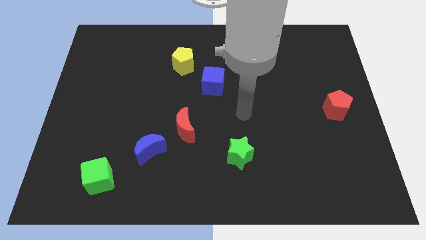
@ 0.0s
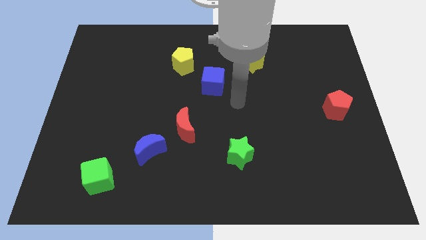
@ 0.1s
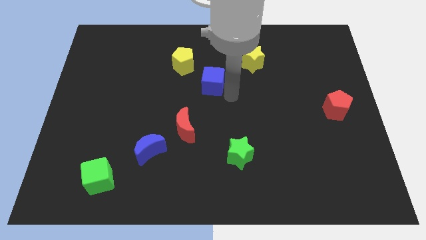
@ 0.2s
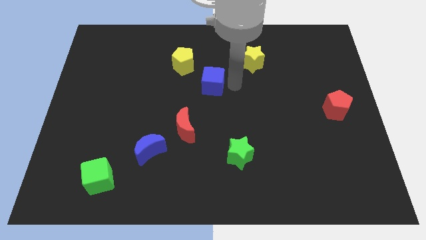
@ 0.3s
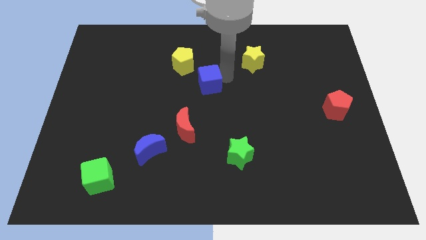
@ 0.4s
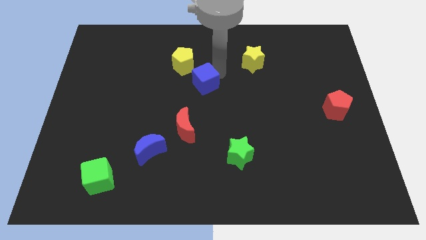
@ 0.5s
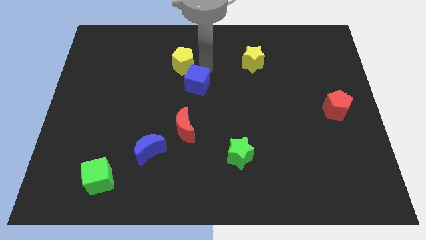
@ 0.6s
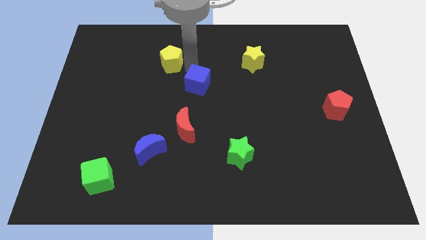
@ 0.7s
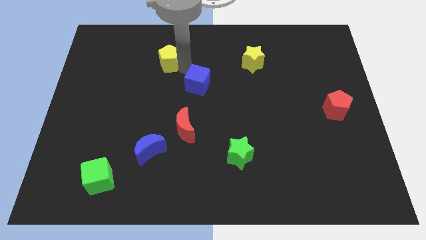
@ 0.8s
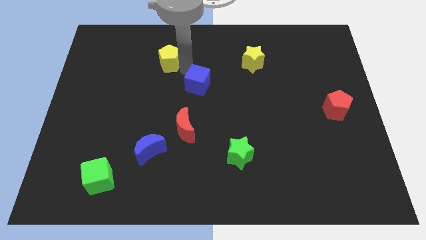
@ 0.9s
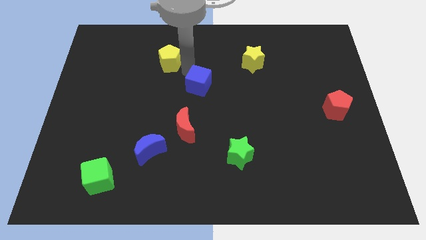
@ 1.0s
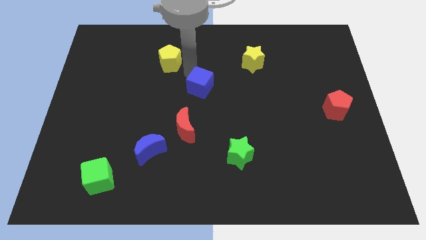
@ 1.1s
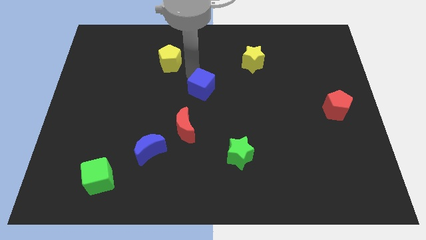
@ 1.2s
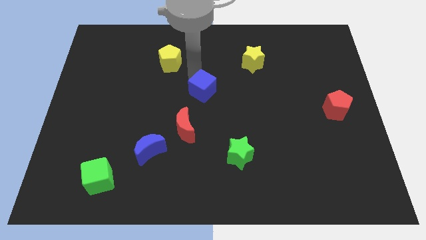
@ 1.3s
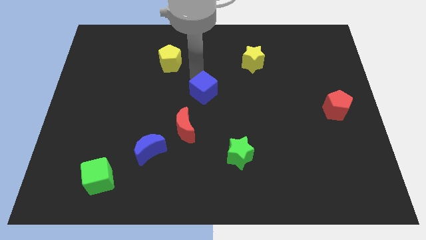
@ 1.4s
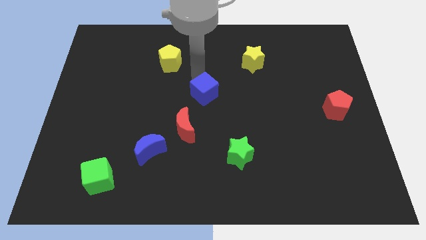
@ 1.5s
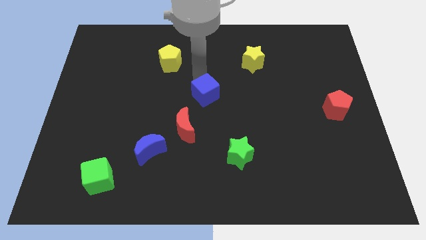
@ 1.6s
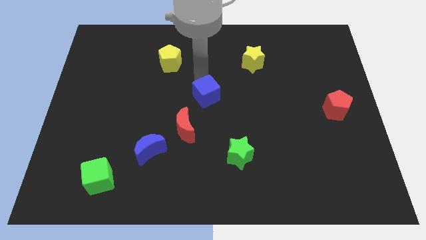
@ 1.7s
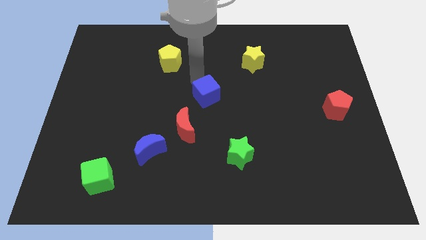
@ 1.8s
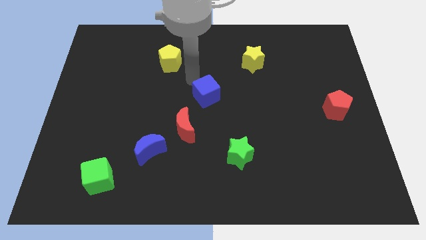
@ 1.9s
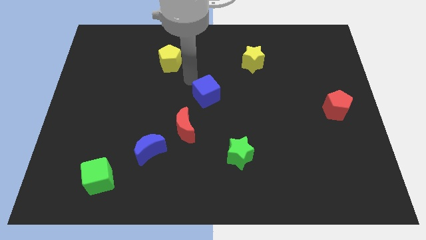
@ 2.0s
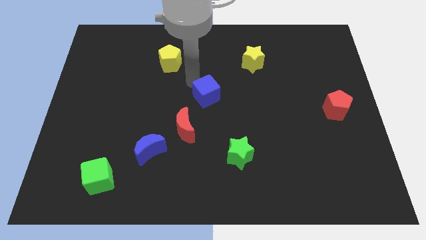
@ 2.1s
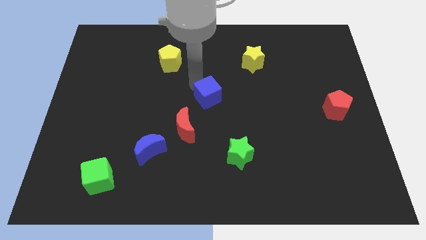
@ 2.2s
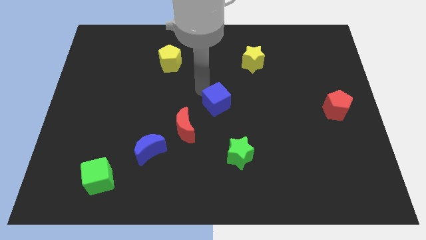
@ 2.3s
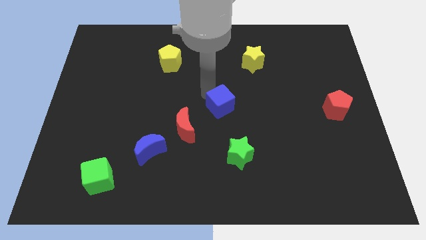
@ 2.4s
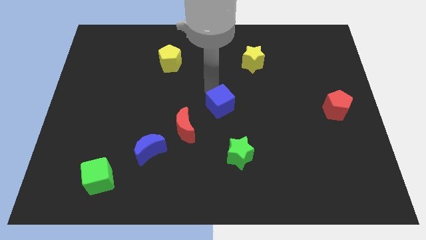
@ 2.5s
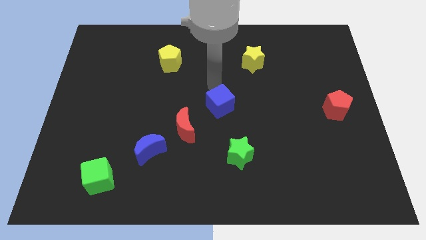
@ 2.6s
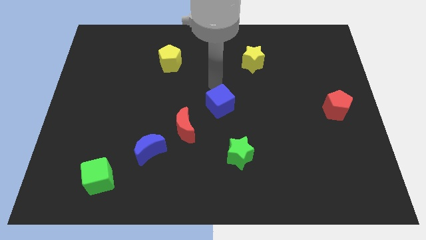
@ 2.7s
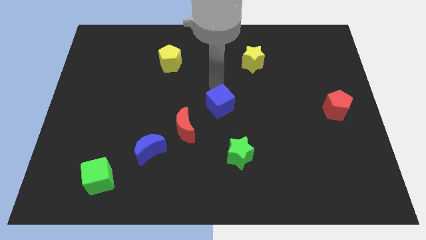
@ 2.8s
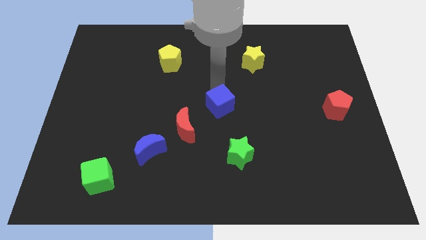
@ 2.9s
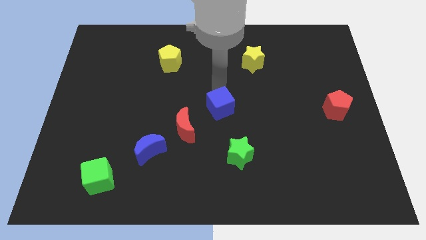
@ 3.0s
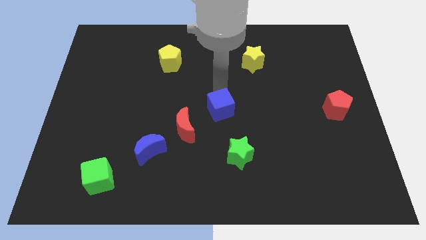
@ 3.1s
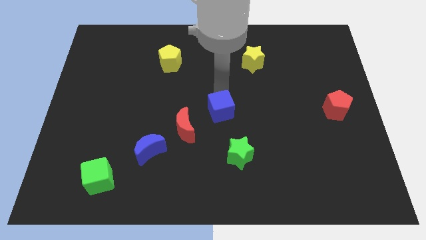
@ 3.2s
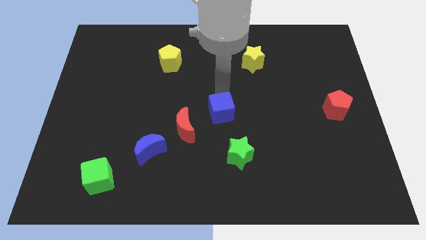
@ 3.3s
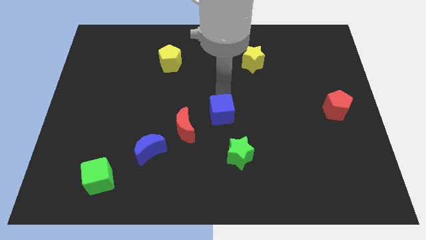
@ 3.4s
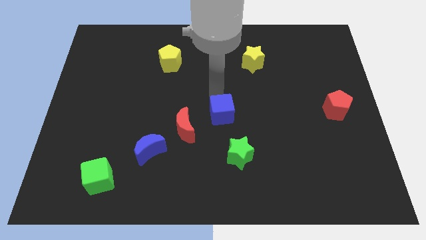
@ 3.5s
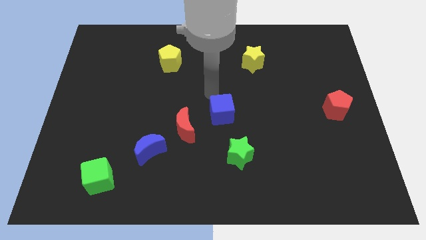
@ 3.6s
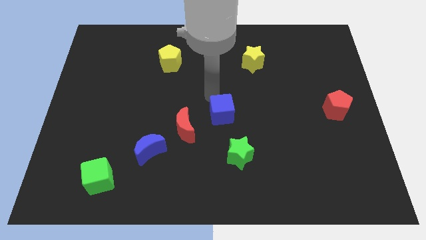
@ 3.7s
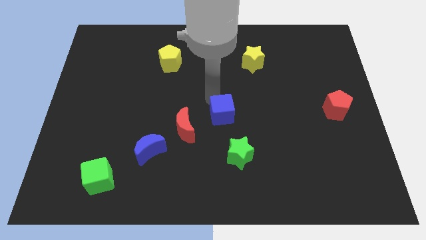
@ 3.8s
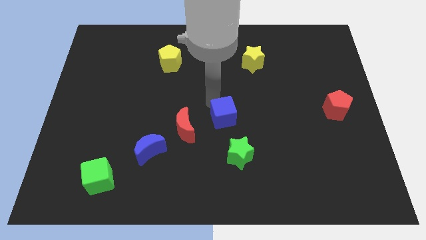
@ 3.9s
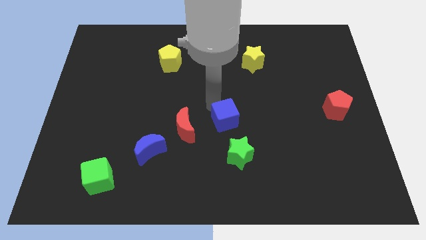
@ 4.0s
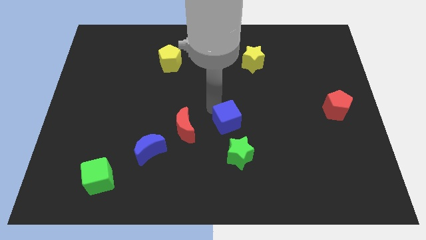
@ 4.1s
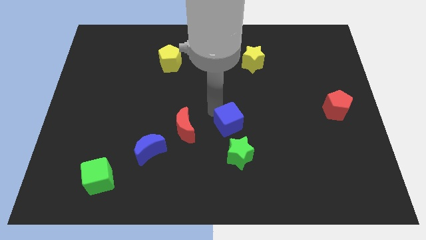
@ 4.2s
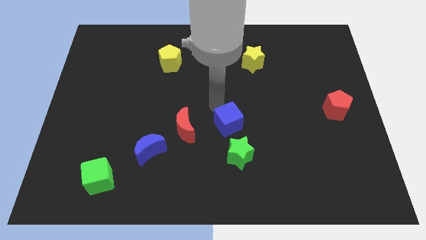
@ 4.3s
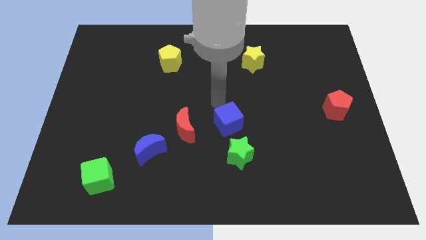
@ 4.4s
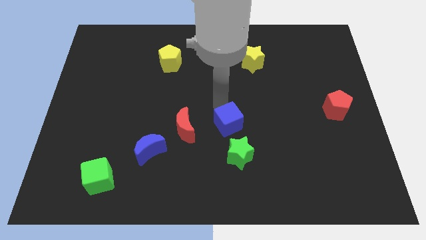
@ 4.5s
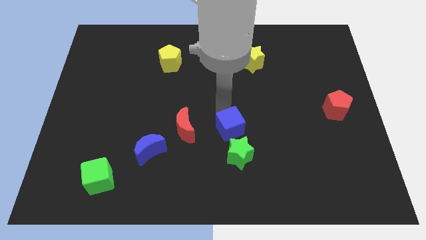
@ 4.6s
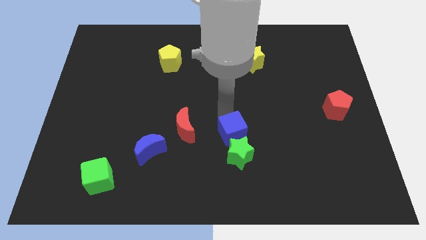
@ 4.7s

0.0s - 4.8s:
push the blue cube to the green star

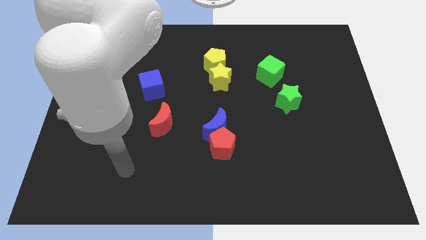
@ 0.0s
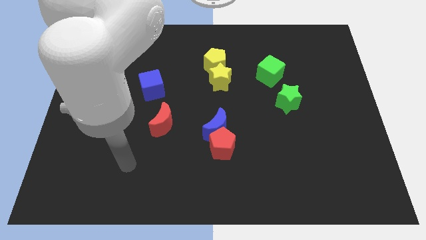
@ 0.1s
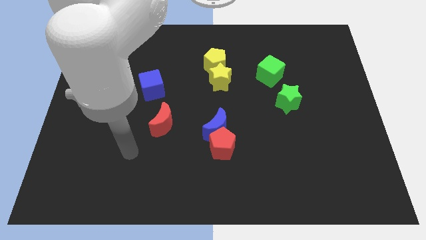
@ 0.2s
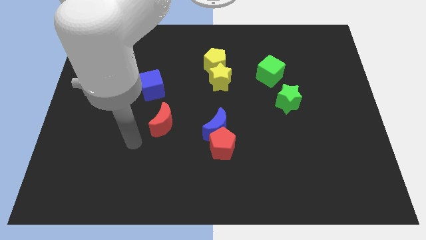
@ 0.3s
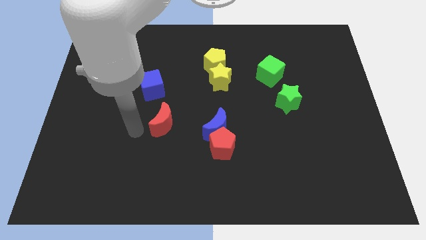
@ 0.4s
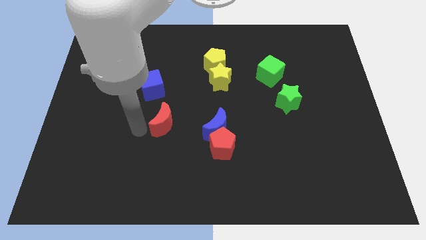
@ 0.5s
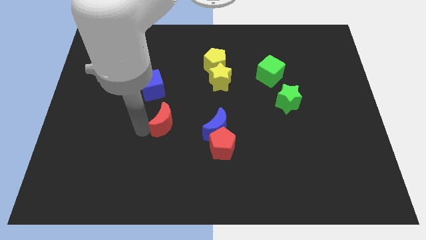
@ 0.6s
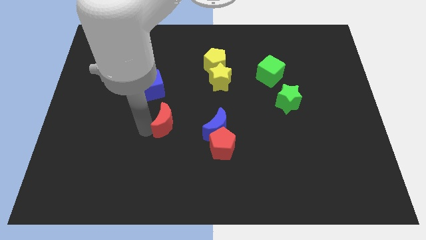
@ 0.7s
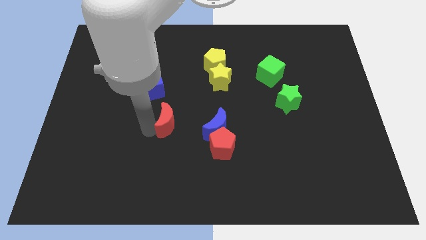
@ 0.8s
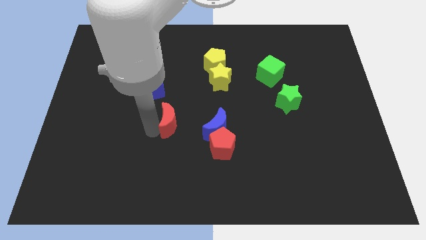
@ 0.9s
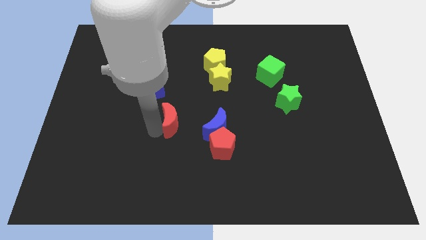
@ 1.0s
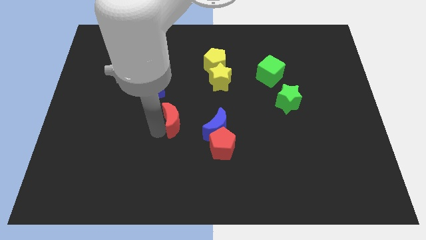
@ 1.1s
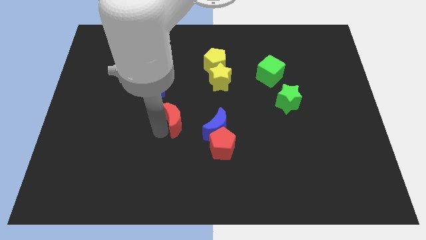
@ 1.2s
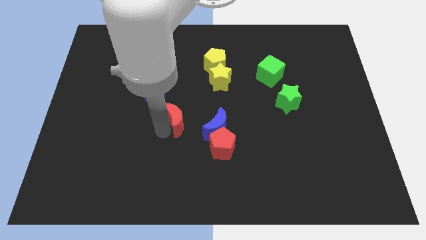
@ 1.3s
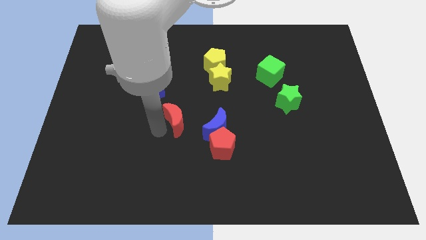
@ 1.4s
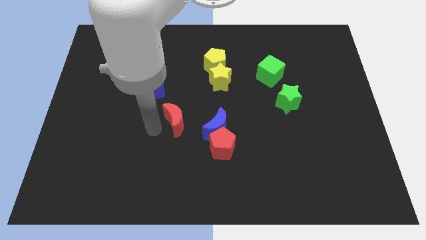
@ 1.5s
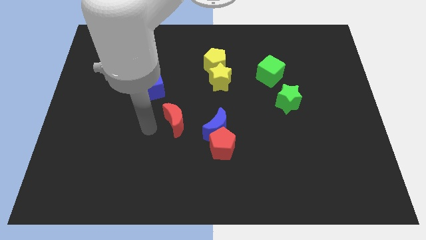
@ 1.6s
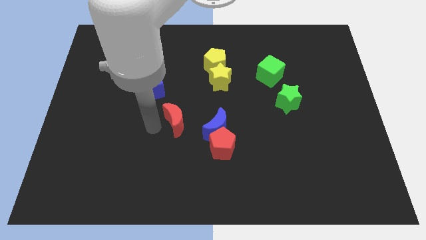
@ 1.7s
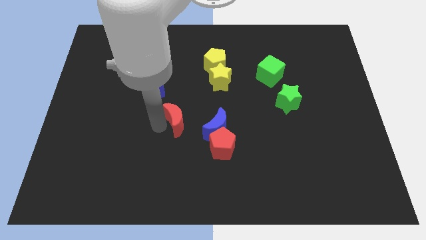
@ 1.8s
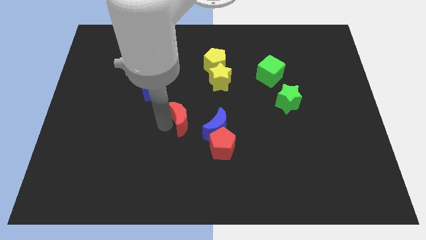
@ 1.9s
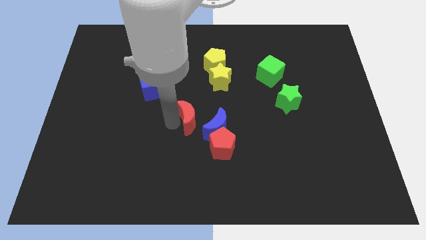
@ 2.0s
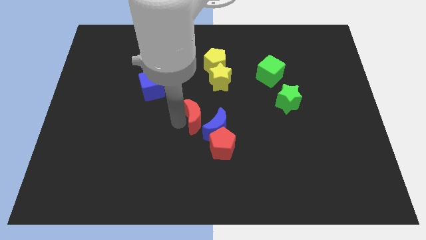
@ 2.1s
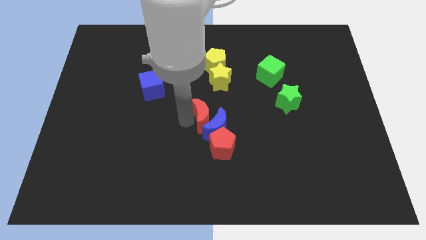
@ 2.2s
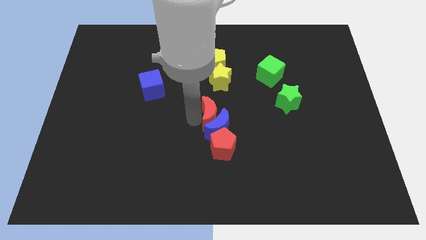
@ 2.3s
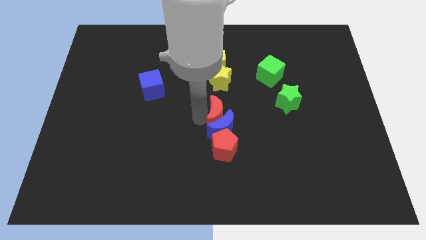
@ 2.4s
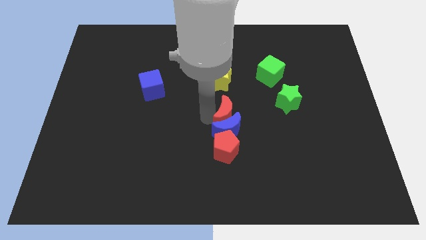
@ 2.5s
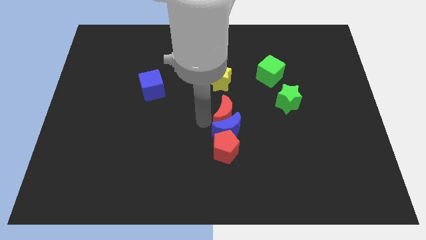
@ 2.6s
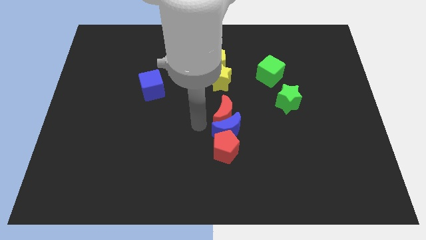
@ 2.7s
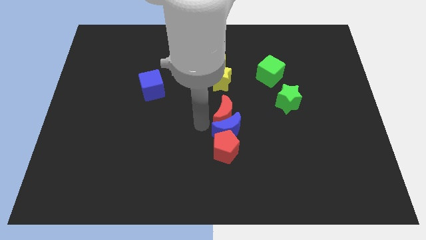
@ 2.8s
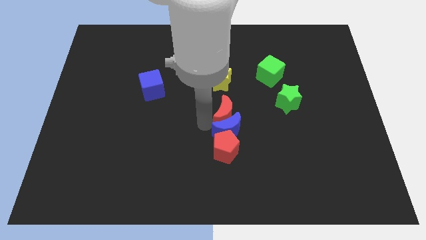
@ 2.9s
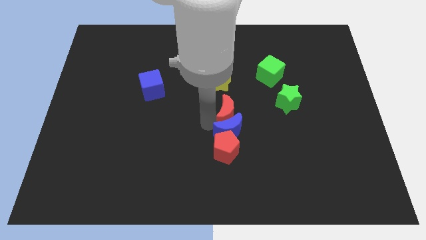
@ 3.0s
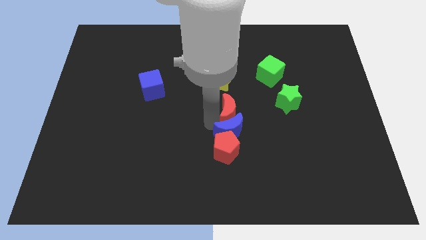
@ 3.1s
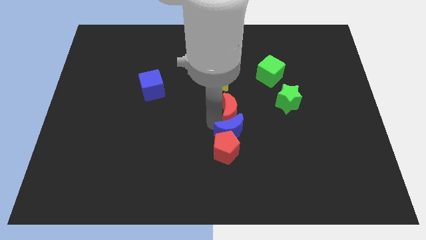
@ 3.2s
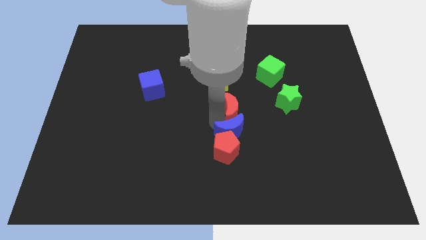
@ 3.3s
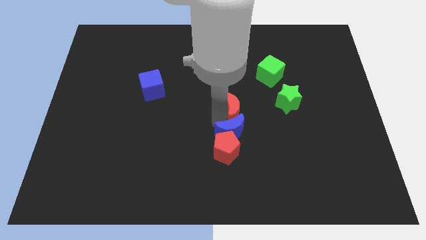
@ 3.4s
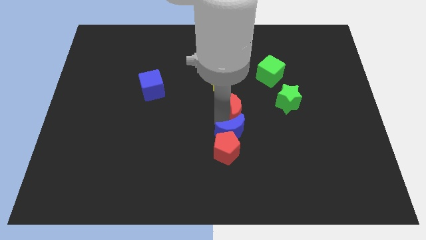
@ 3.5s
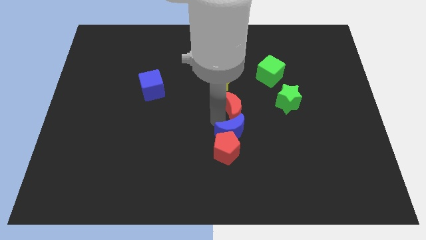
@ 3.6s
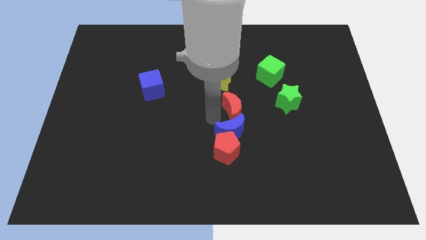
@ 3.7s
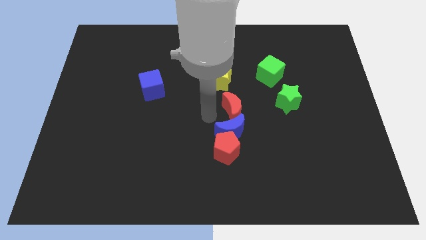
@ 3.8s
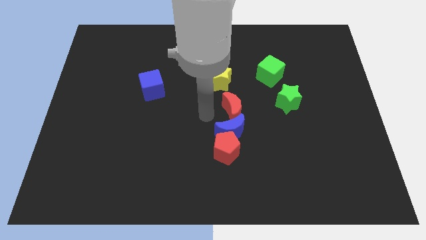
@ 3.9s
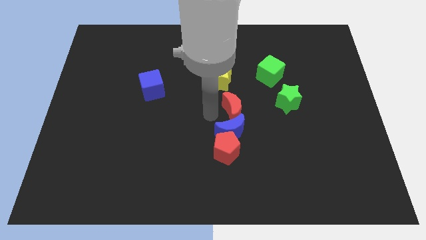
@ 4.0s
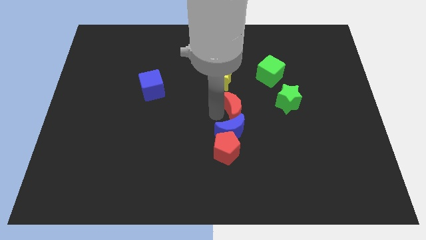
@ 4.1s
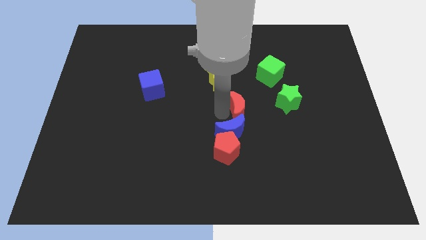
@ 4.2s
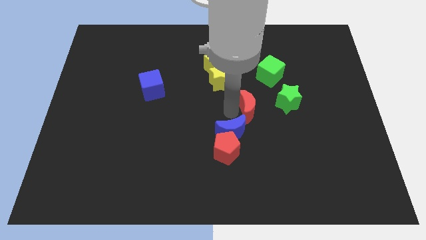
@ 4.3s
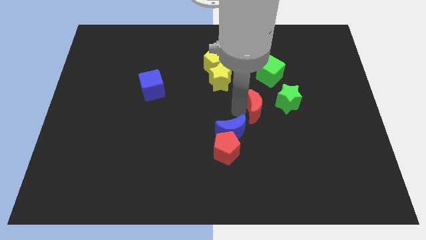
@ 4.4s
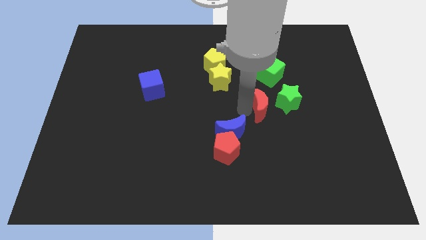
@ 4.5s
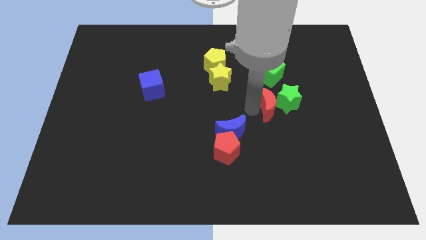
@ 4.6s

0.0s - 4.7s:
put the red moon towards the green star
